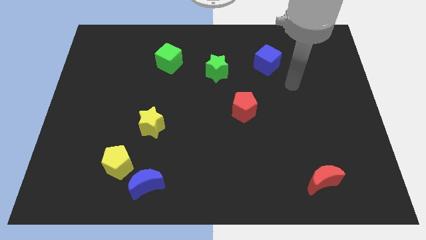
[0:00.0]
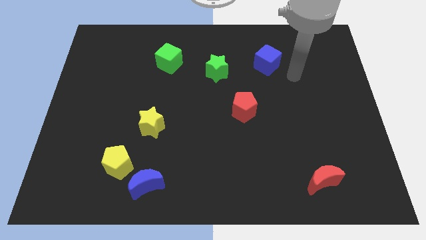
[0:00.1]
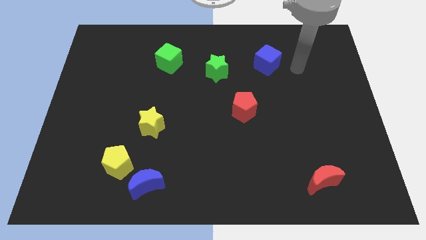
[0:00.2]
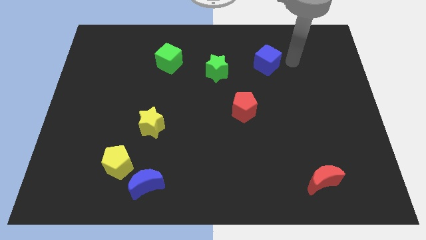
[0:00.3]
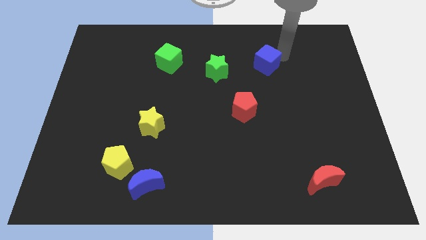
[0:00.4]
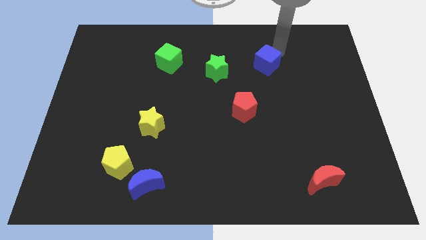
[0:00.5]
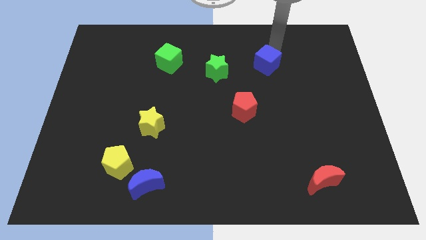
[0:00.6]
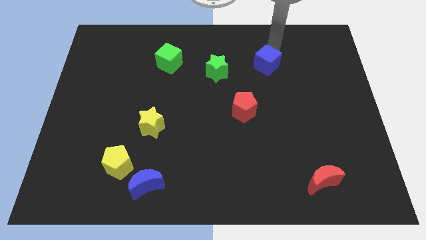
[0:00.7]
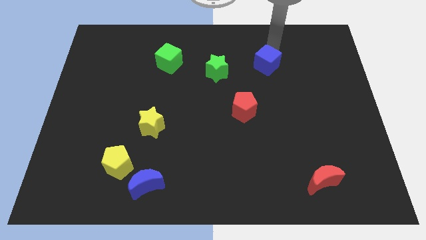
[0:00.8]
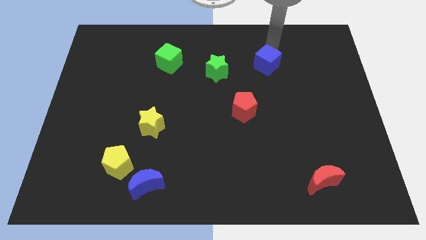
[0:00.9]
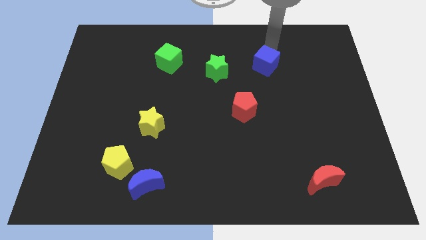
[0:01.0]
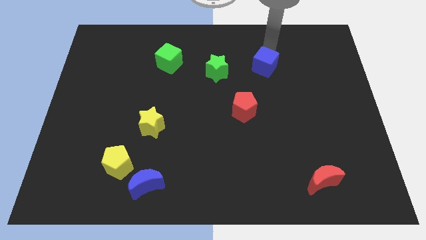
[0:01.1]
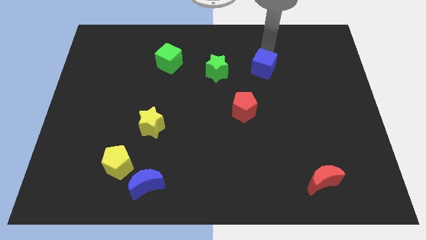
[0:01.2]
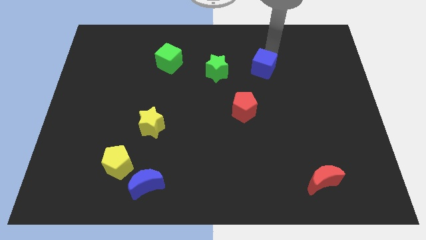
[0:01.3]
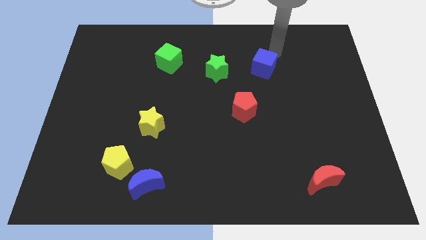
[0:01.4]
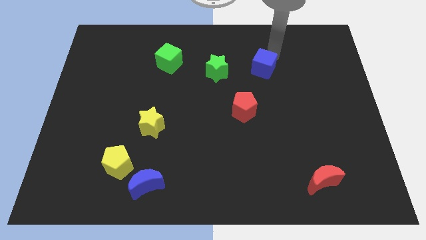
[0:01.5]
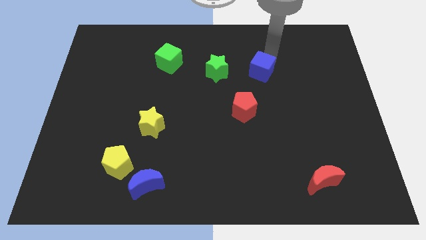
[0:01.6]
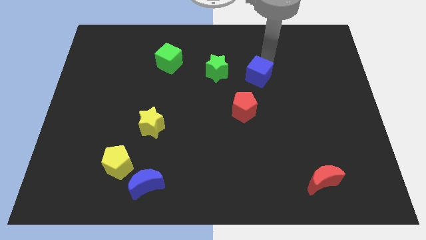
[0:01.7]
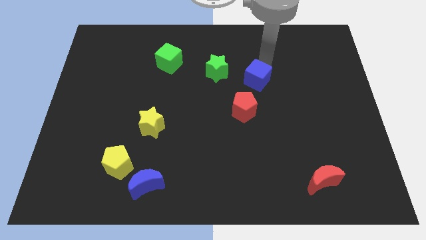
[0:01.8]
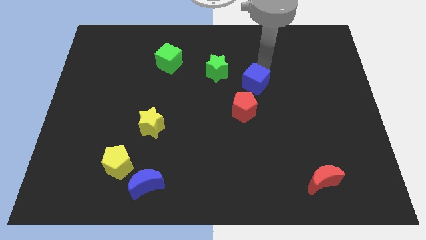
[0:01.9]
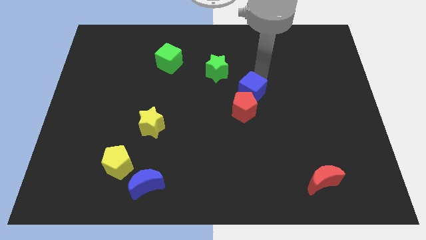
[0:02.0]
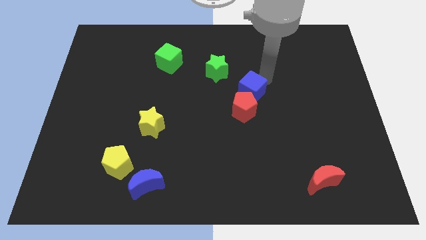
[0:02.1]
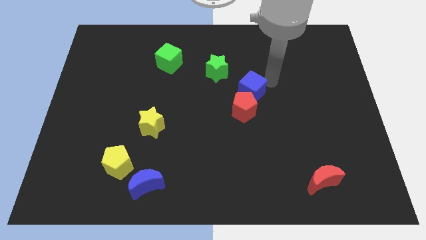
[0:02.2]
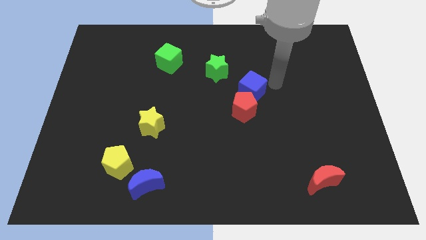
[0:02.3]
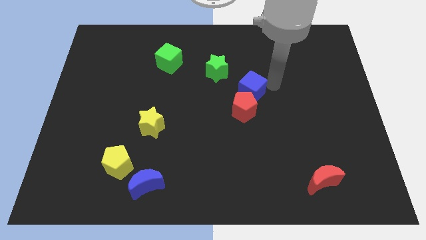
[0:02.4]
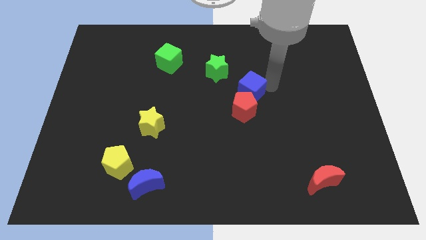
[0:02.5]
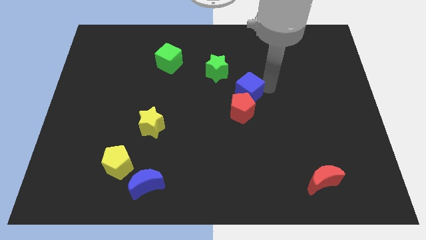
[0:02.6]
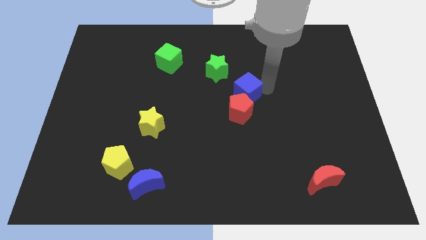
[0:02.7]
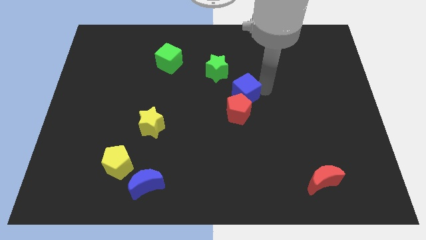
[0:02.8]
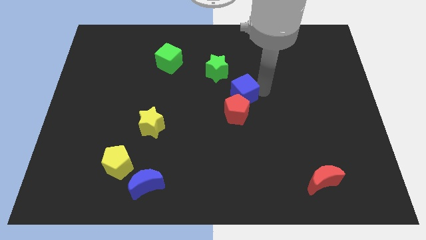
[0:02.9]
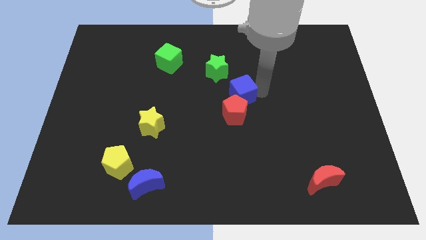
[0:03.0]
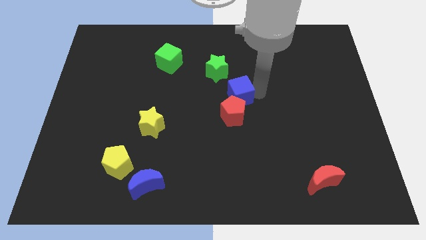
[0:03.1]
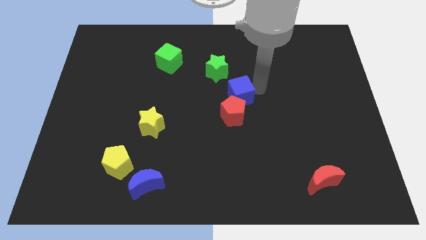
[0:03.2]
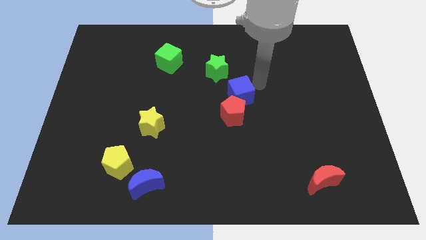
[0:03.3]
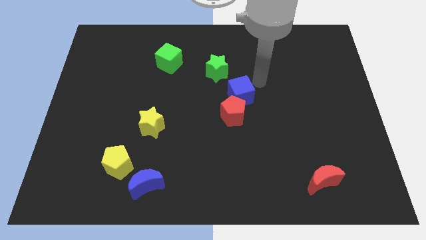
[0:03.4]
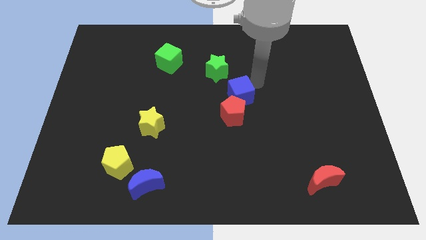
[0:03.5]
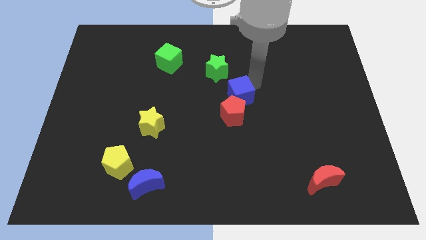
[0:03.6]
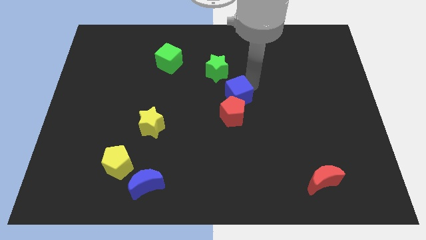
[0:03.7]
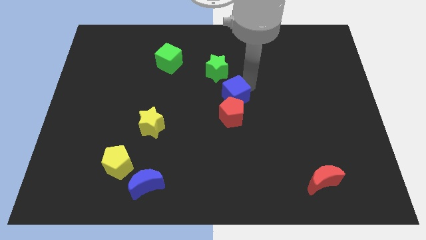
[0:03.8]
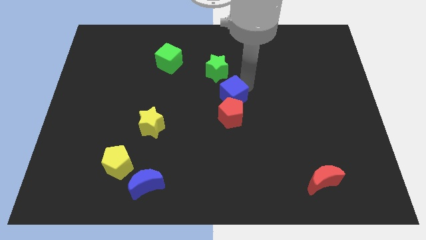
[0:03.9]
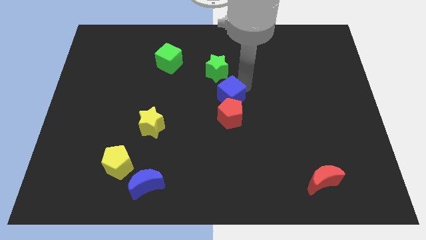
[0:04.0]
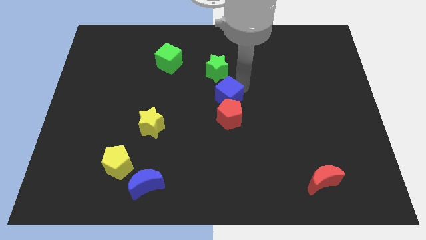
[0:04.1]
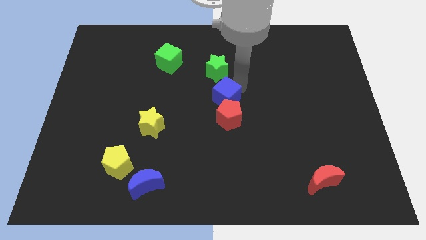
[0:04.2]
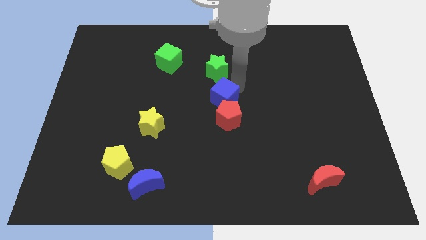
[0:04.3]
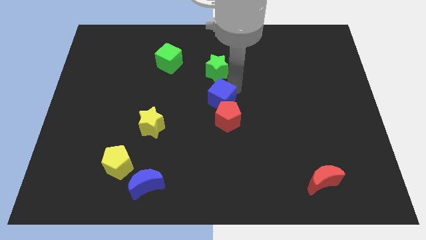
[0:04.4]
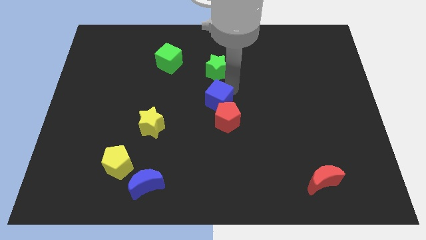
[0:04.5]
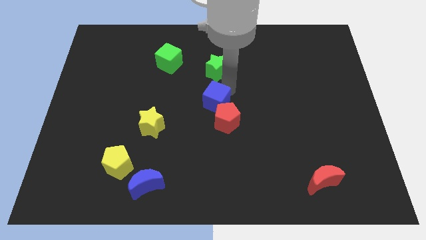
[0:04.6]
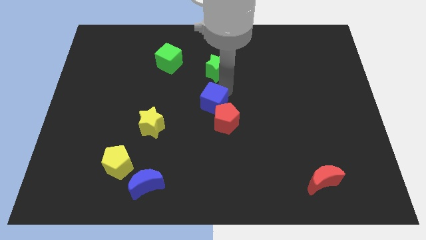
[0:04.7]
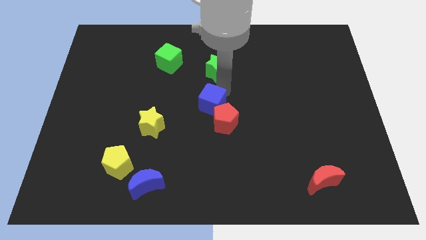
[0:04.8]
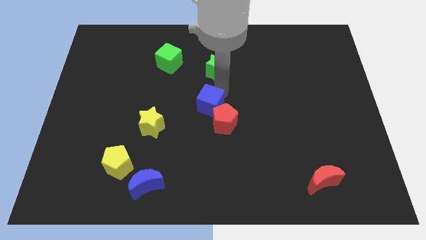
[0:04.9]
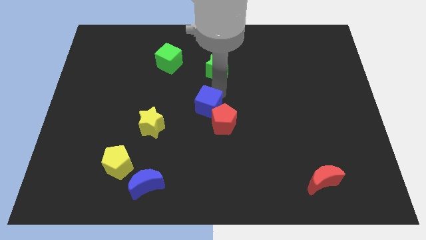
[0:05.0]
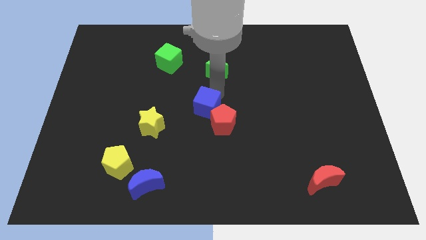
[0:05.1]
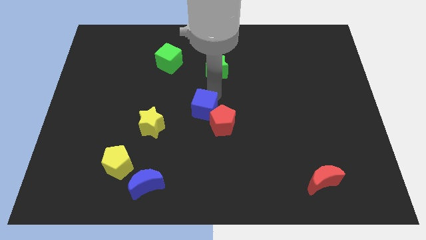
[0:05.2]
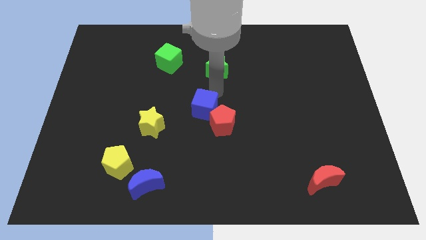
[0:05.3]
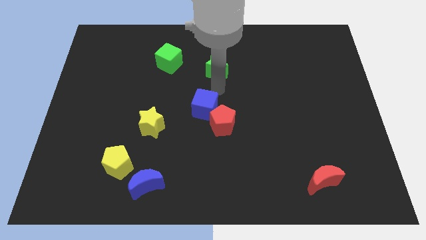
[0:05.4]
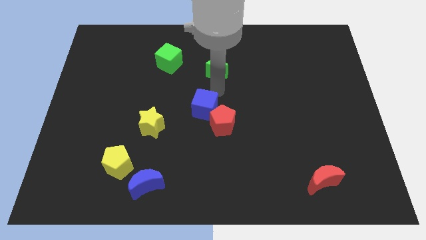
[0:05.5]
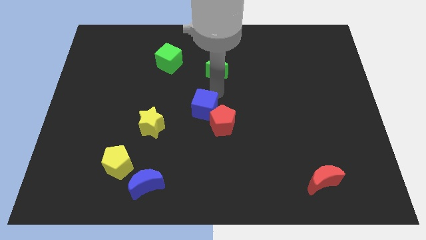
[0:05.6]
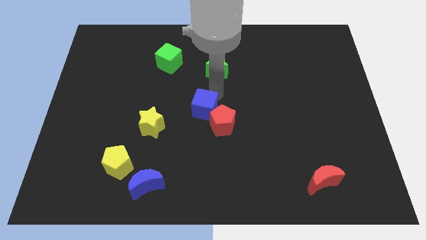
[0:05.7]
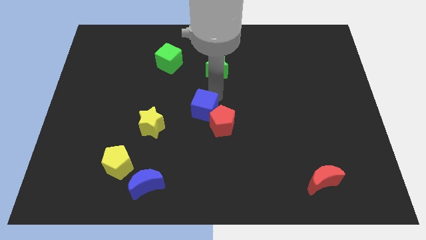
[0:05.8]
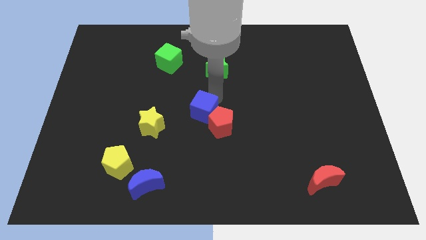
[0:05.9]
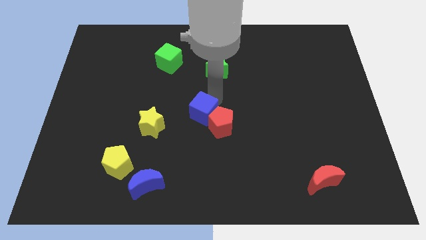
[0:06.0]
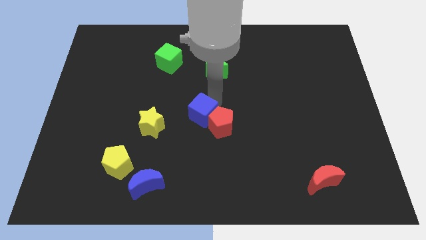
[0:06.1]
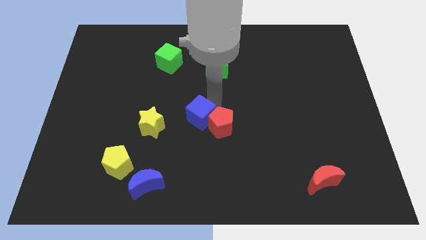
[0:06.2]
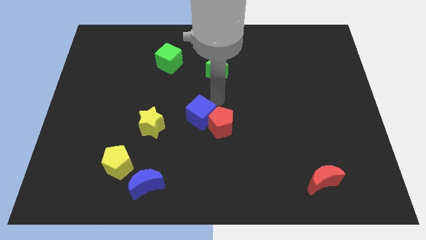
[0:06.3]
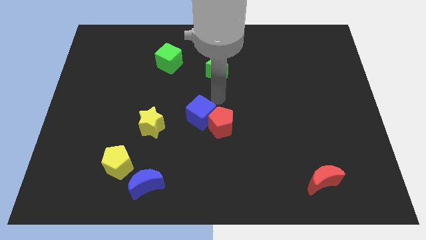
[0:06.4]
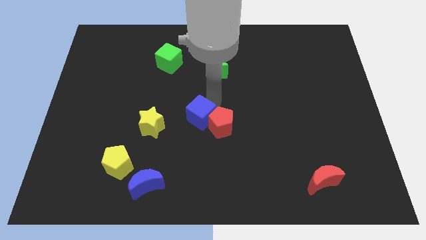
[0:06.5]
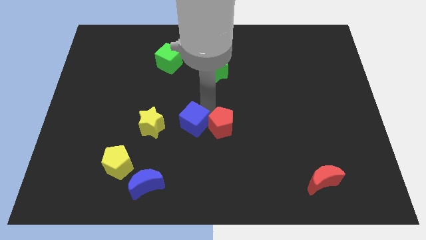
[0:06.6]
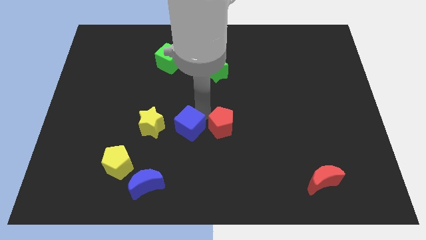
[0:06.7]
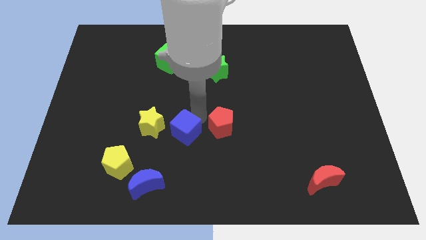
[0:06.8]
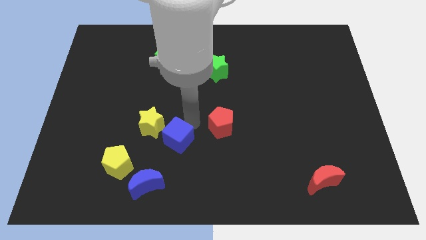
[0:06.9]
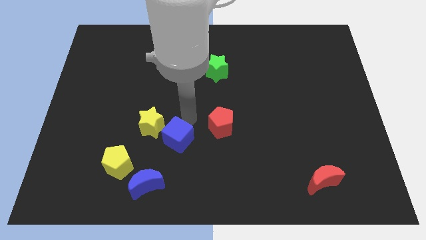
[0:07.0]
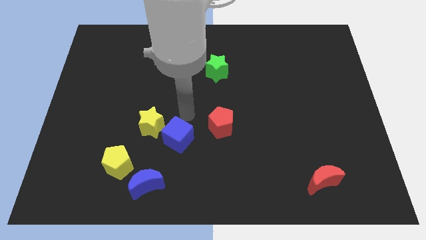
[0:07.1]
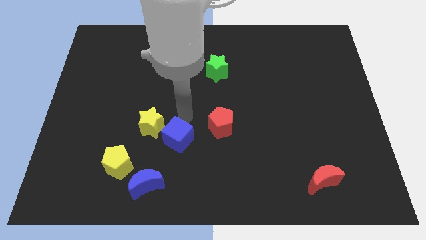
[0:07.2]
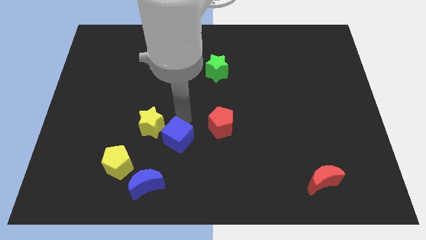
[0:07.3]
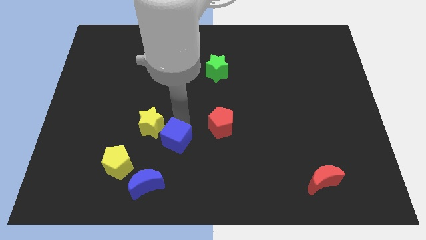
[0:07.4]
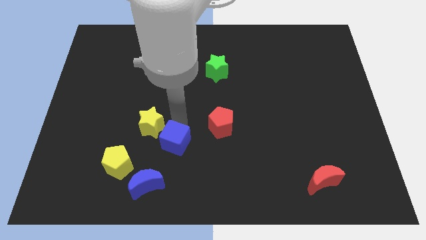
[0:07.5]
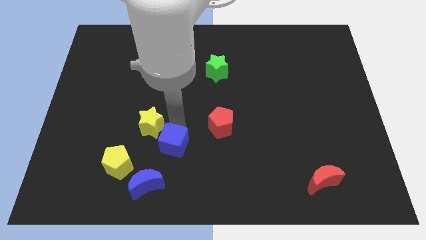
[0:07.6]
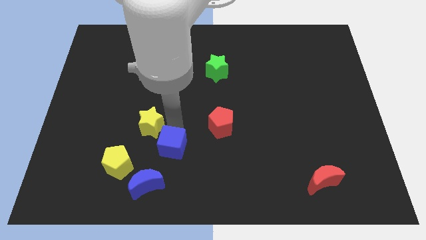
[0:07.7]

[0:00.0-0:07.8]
slide the blue cube to the right side of the yellow pentagon
